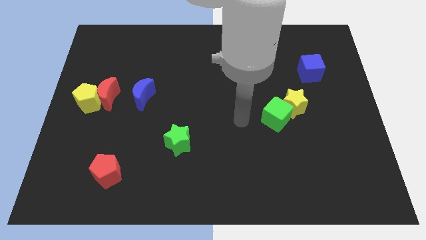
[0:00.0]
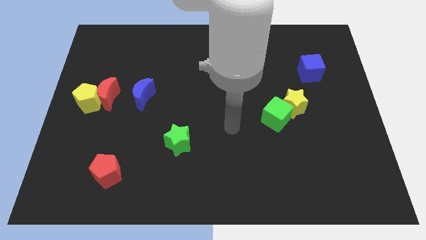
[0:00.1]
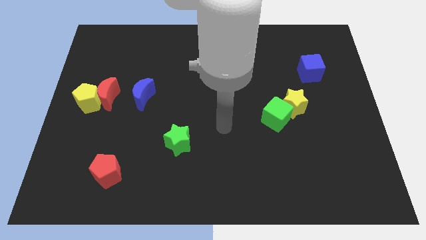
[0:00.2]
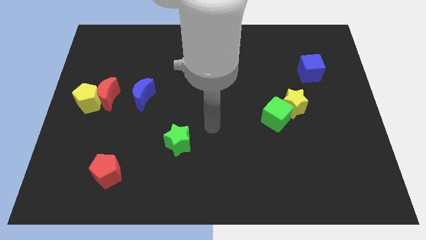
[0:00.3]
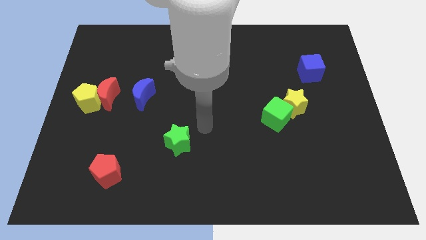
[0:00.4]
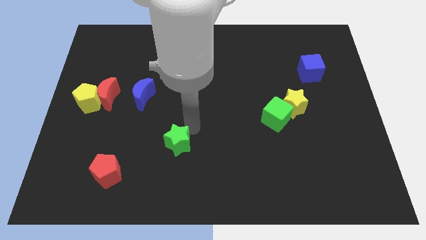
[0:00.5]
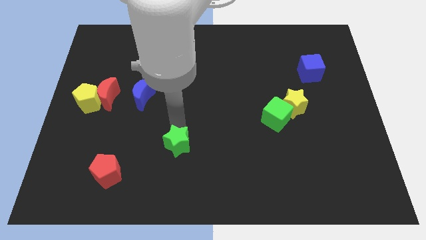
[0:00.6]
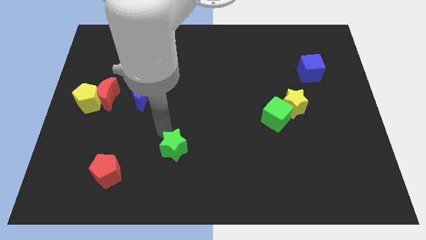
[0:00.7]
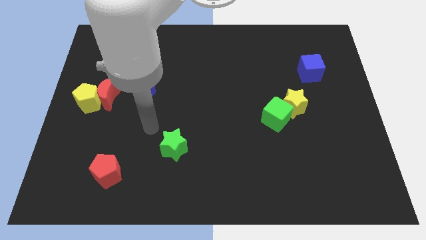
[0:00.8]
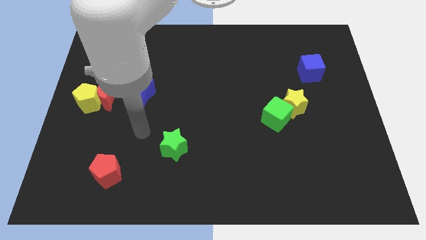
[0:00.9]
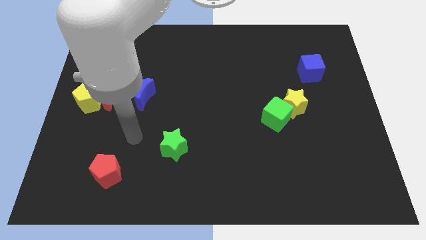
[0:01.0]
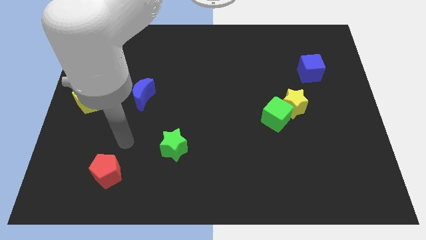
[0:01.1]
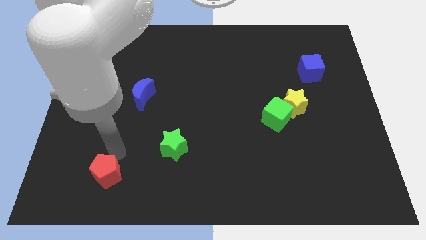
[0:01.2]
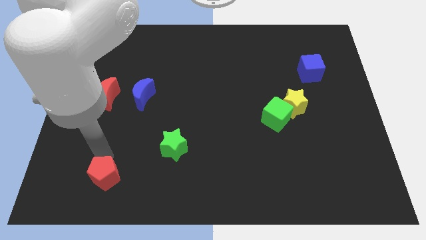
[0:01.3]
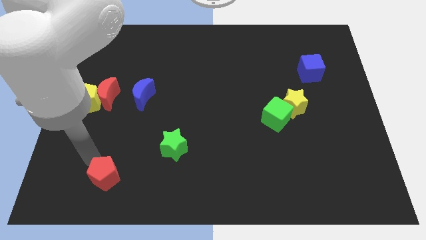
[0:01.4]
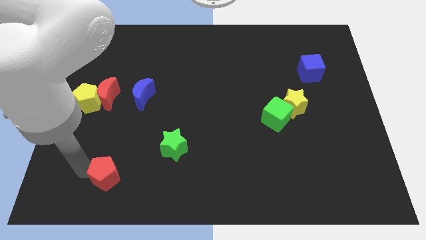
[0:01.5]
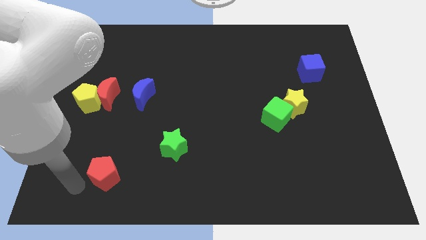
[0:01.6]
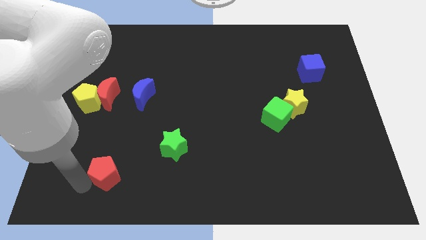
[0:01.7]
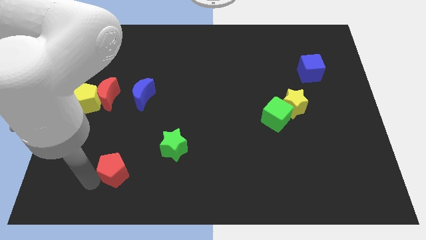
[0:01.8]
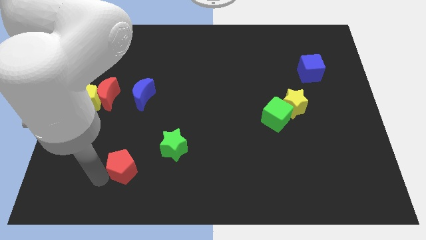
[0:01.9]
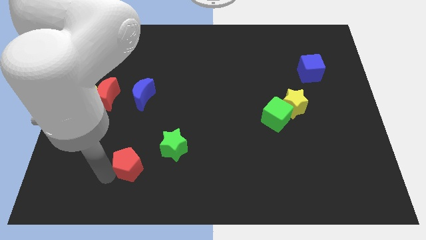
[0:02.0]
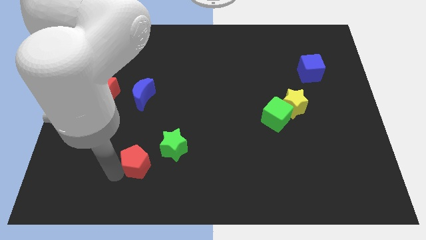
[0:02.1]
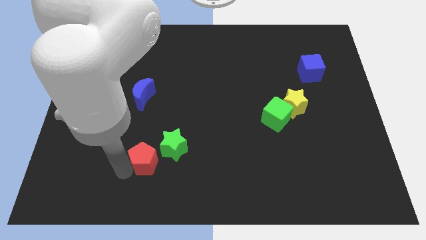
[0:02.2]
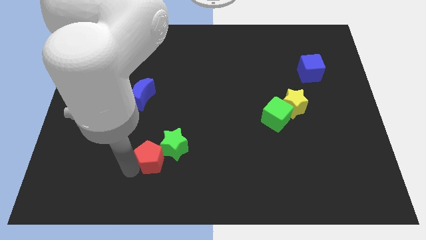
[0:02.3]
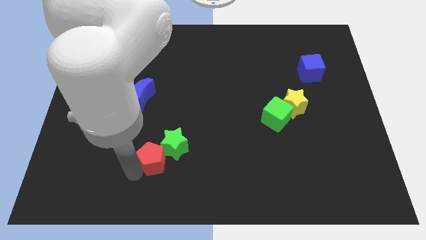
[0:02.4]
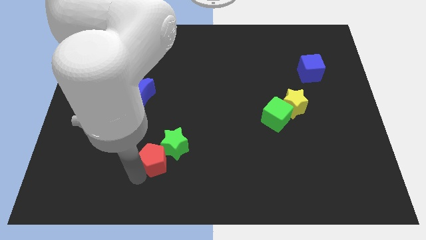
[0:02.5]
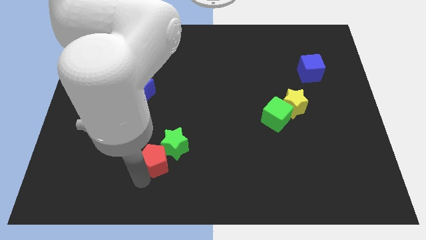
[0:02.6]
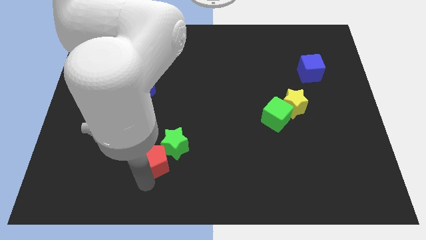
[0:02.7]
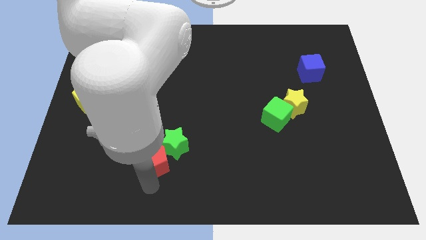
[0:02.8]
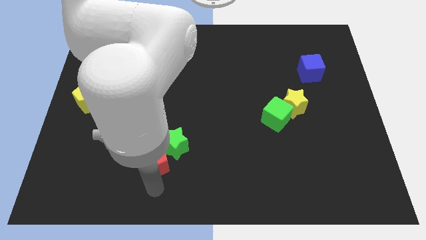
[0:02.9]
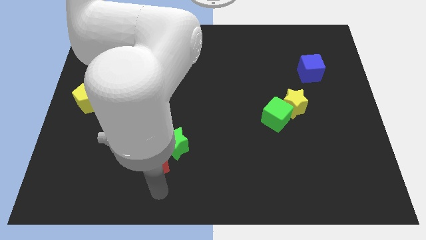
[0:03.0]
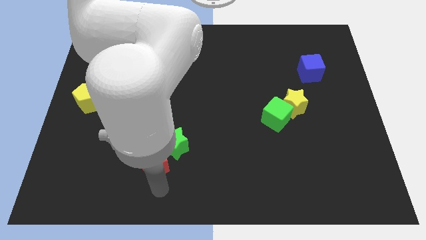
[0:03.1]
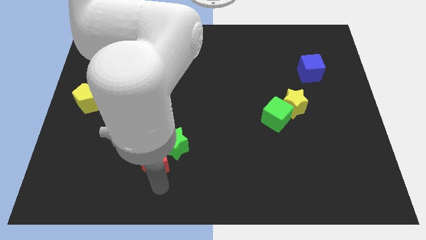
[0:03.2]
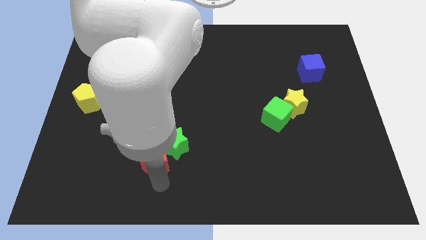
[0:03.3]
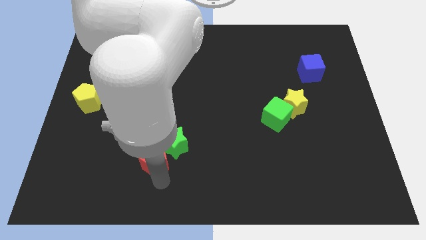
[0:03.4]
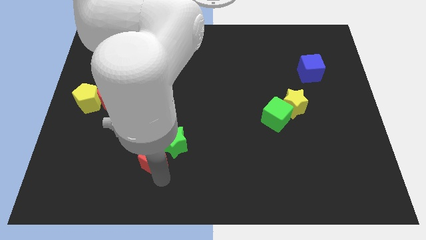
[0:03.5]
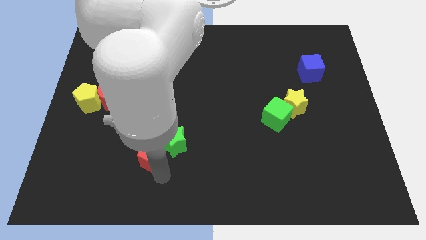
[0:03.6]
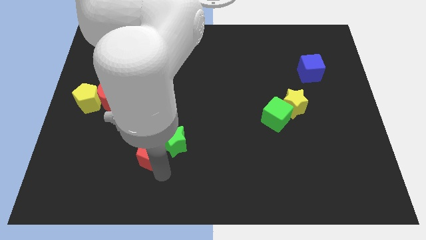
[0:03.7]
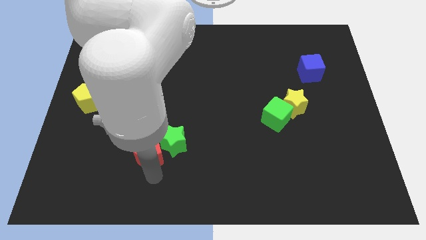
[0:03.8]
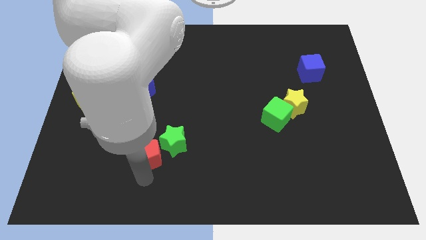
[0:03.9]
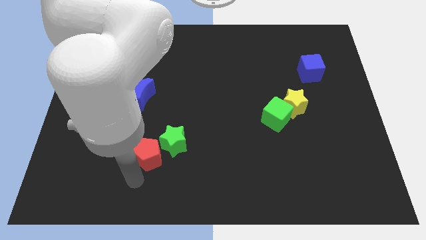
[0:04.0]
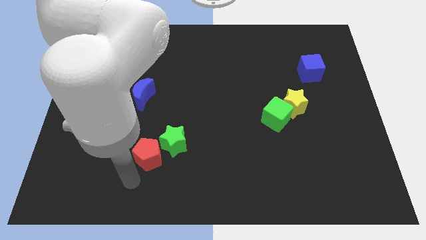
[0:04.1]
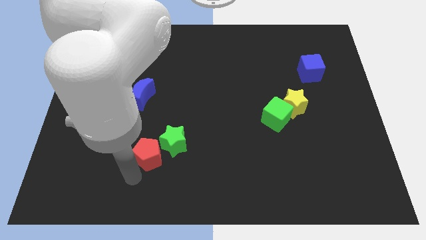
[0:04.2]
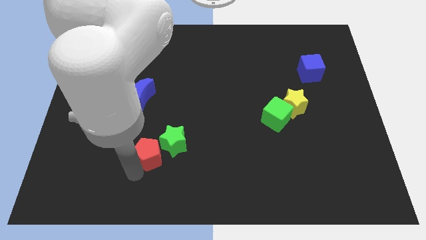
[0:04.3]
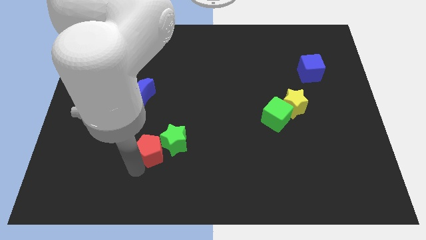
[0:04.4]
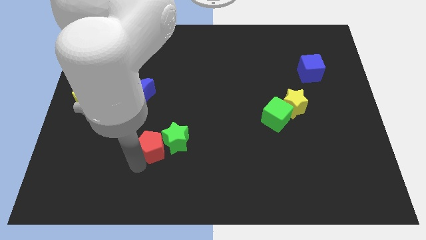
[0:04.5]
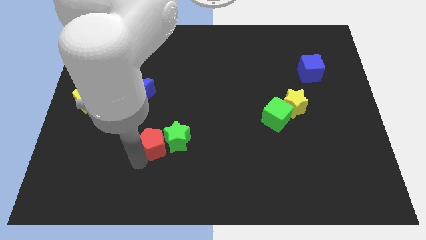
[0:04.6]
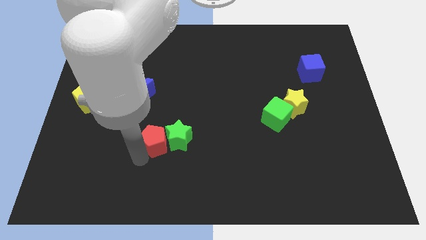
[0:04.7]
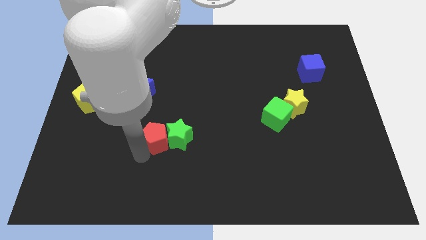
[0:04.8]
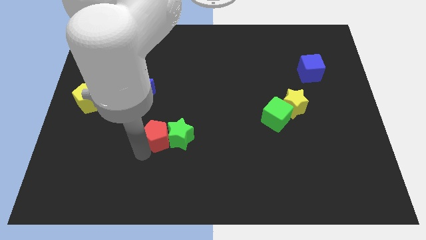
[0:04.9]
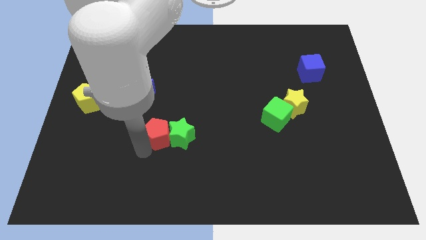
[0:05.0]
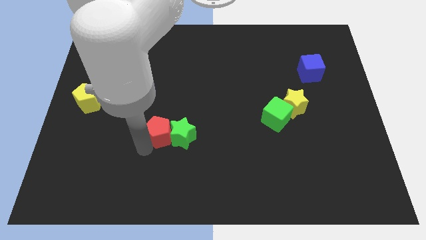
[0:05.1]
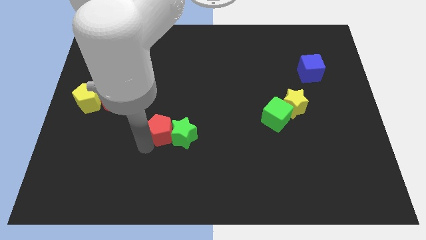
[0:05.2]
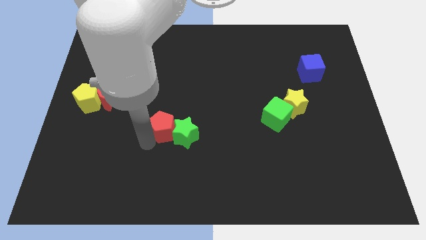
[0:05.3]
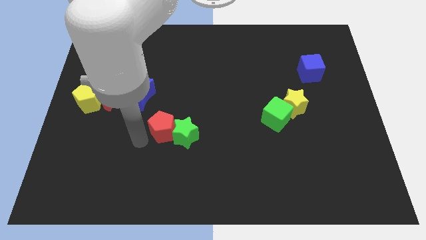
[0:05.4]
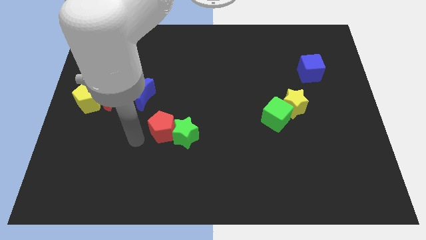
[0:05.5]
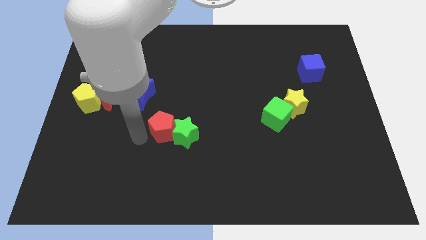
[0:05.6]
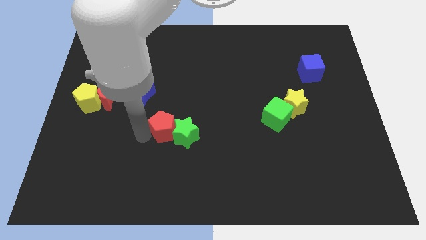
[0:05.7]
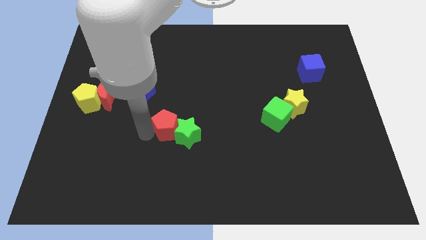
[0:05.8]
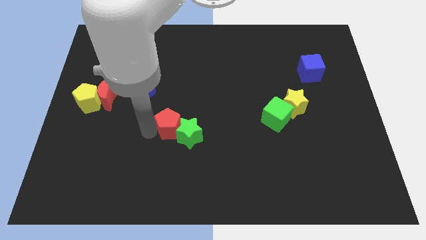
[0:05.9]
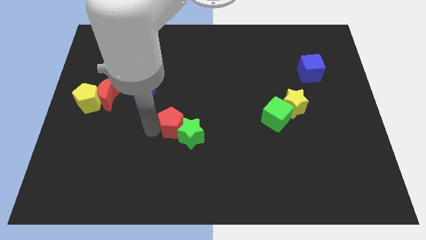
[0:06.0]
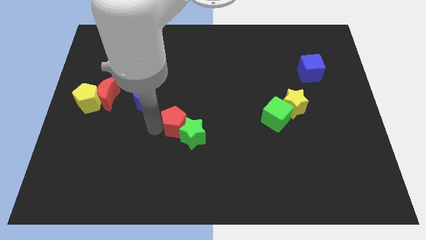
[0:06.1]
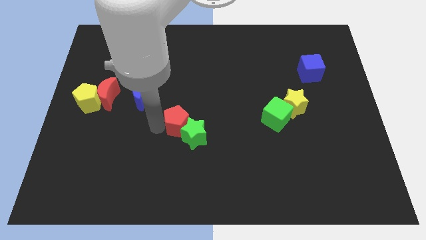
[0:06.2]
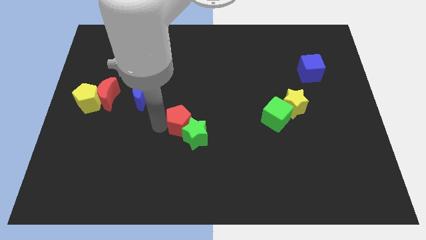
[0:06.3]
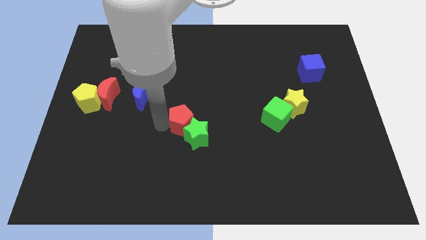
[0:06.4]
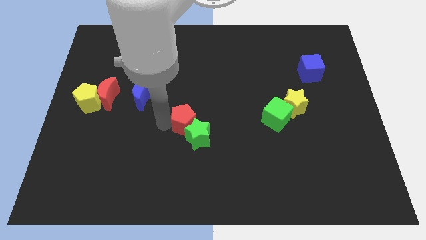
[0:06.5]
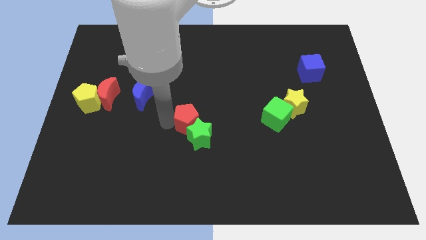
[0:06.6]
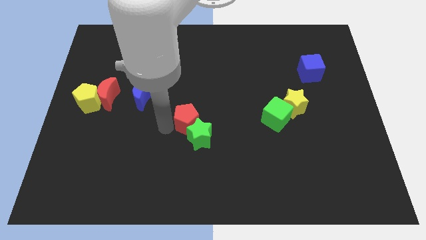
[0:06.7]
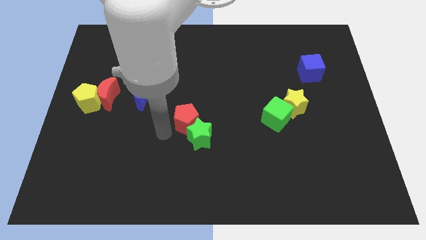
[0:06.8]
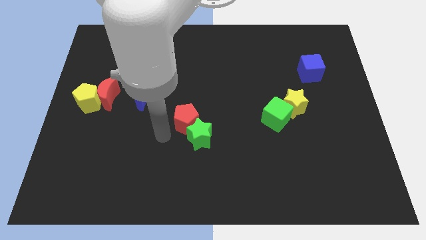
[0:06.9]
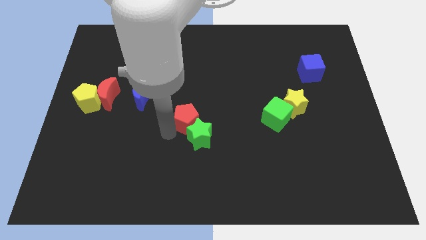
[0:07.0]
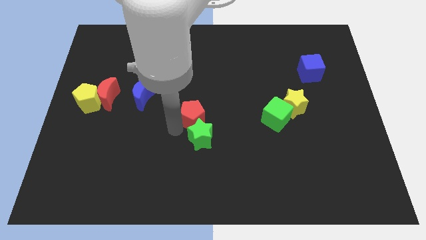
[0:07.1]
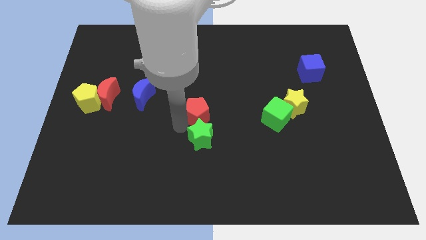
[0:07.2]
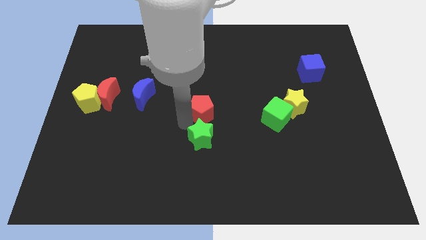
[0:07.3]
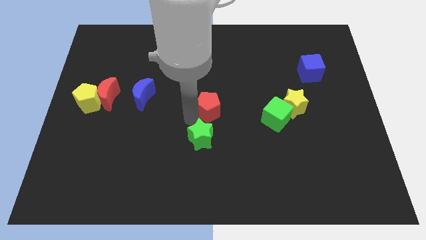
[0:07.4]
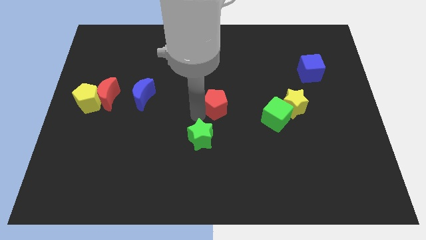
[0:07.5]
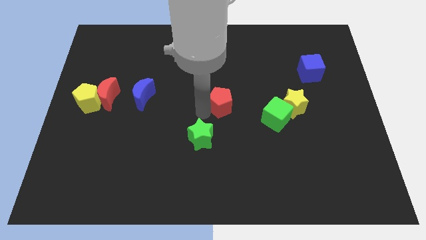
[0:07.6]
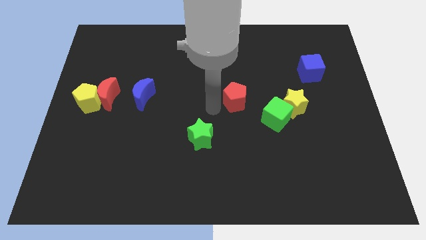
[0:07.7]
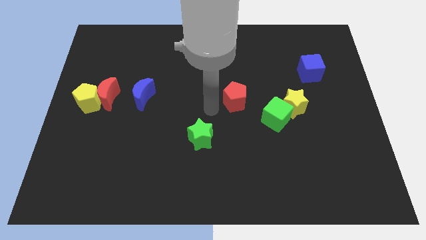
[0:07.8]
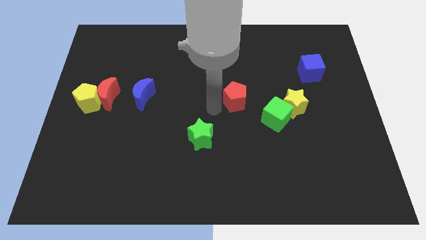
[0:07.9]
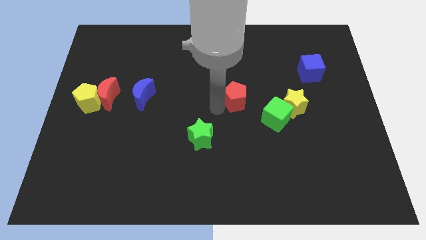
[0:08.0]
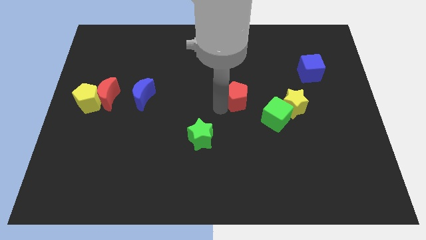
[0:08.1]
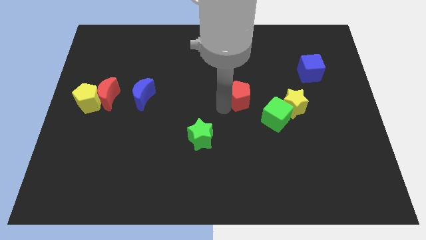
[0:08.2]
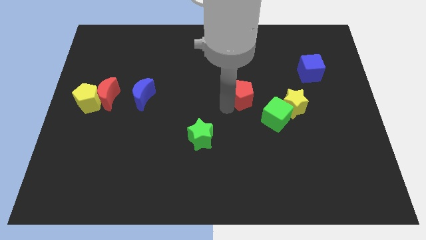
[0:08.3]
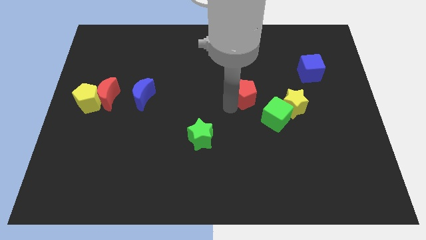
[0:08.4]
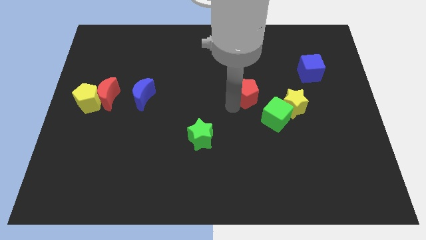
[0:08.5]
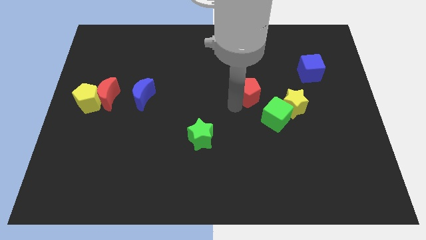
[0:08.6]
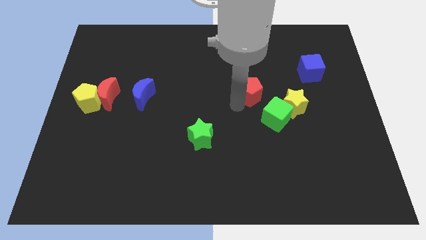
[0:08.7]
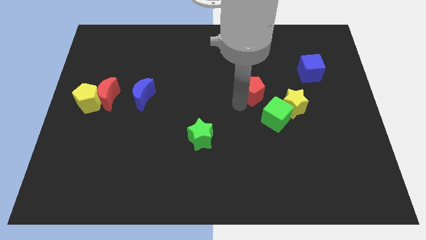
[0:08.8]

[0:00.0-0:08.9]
put the red pentagon to the top side of the green cube
